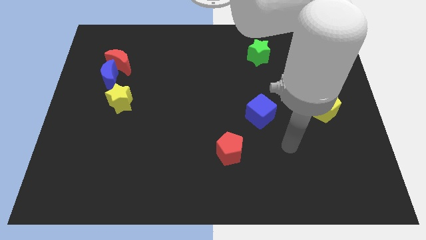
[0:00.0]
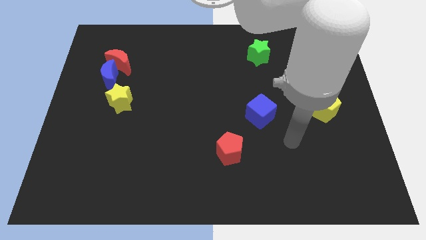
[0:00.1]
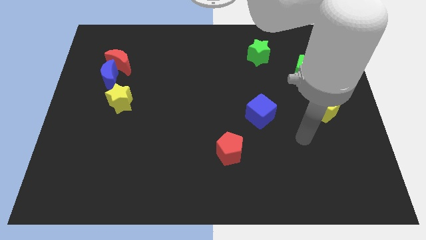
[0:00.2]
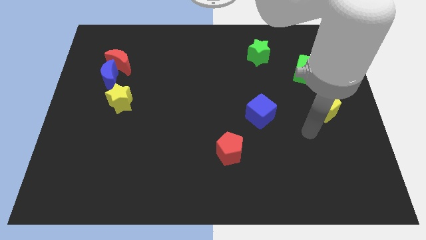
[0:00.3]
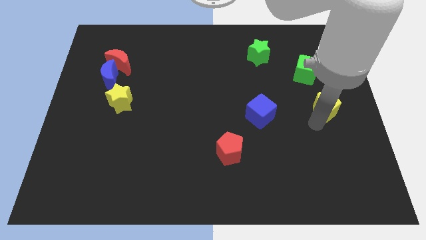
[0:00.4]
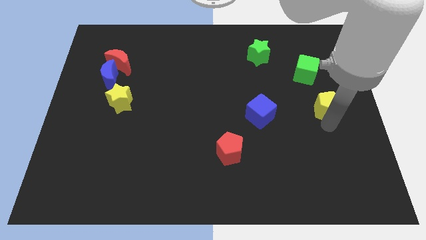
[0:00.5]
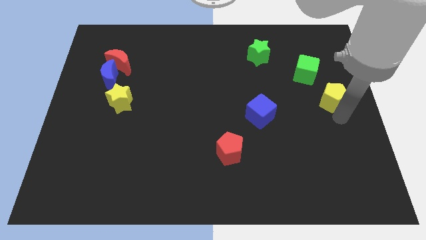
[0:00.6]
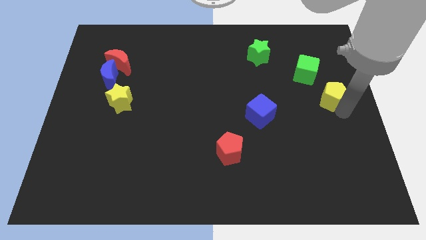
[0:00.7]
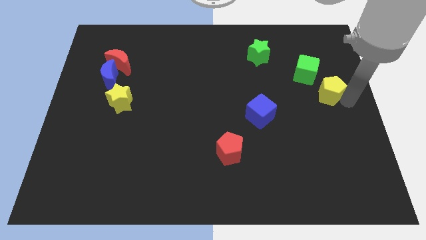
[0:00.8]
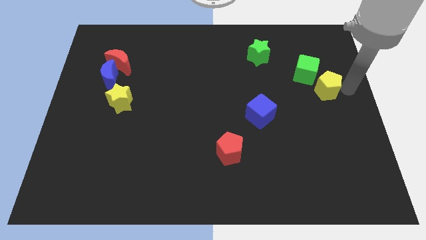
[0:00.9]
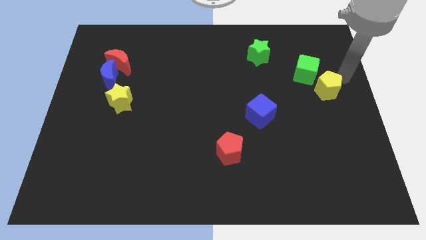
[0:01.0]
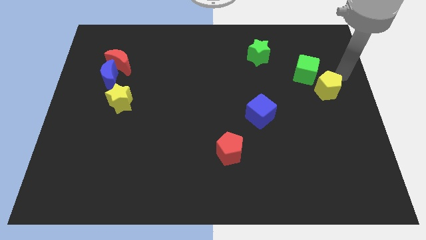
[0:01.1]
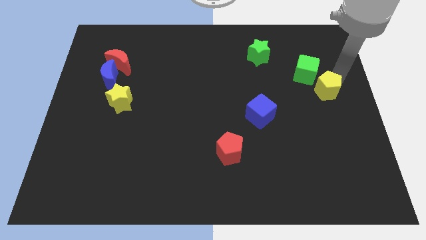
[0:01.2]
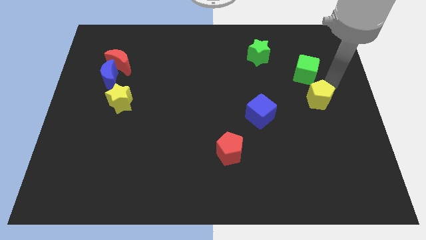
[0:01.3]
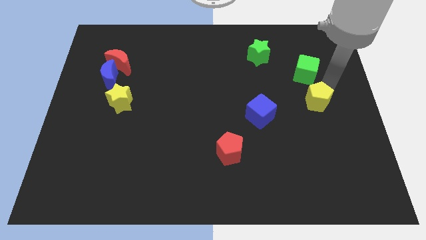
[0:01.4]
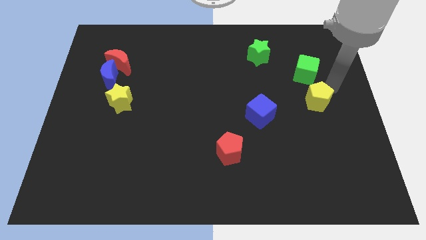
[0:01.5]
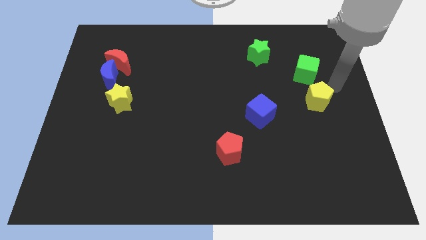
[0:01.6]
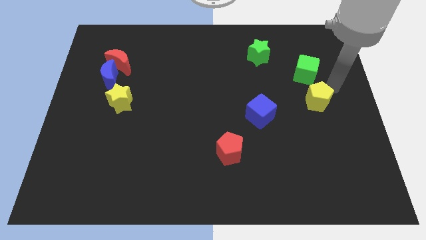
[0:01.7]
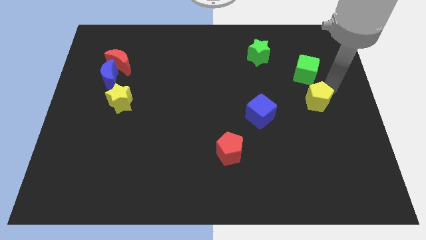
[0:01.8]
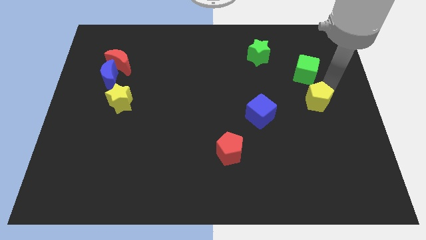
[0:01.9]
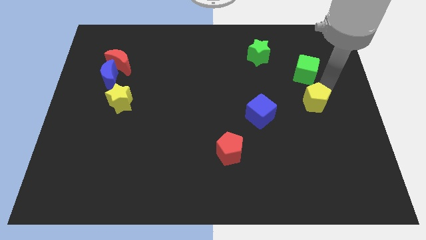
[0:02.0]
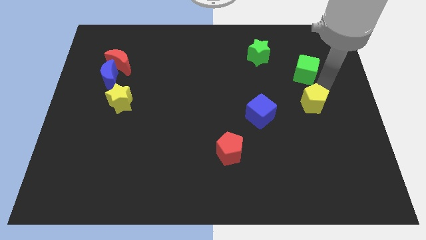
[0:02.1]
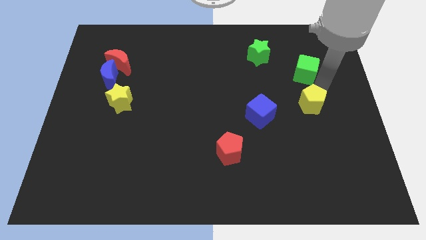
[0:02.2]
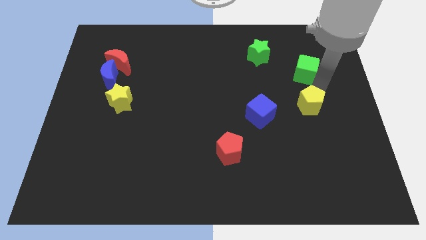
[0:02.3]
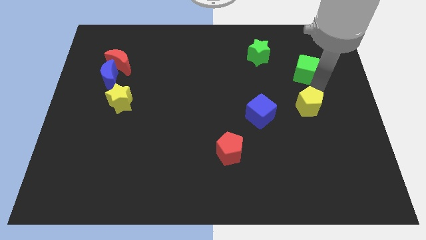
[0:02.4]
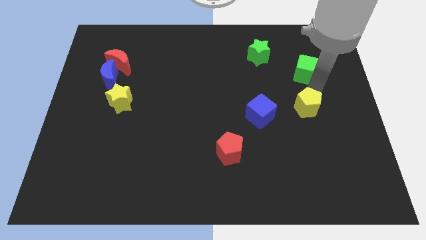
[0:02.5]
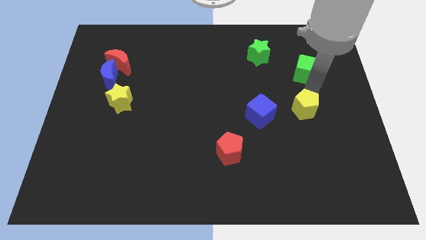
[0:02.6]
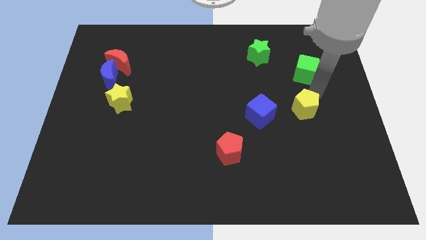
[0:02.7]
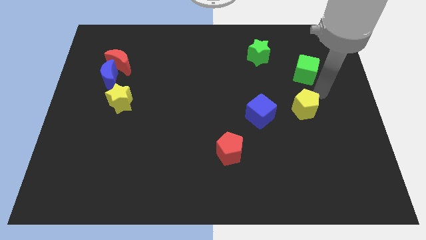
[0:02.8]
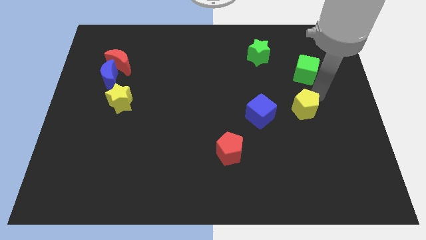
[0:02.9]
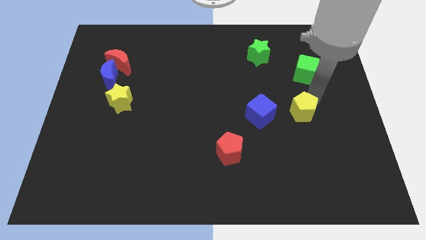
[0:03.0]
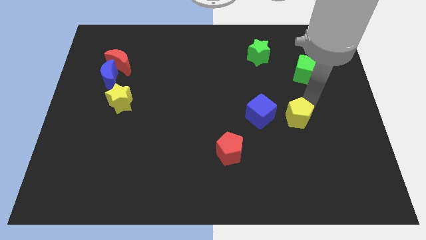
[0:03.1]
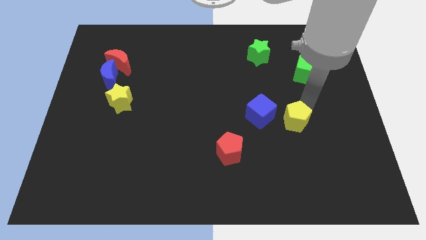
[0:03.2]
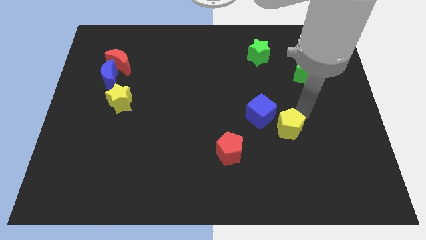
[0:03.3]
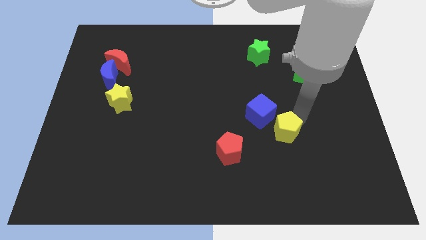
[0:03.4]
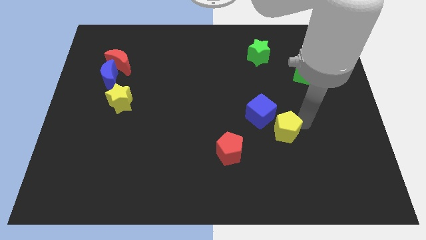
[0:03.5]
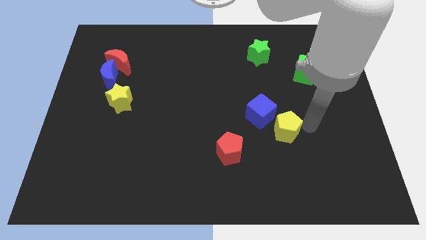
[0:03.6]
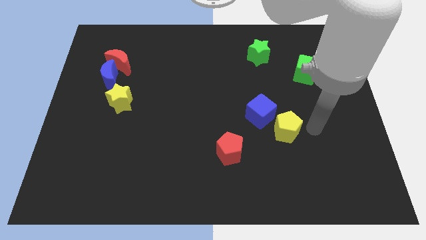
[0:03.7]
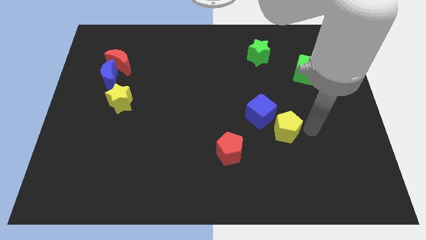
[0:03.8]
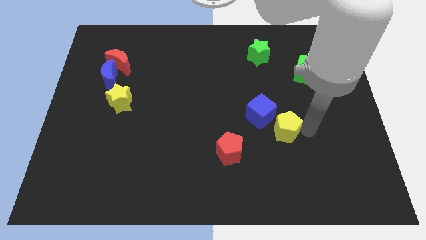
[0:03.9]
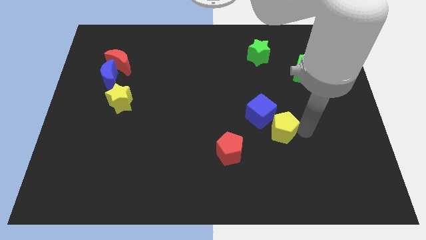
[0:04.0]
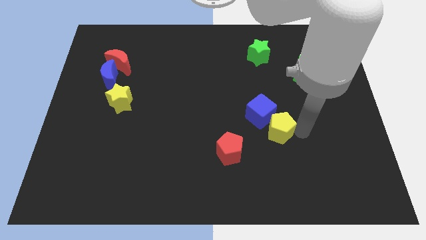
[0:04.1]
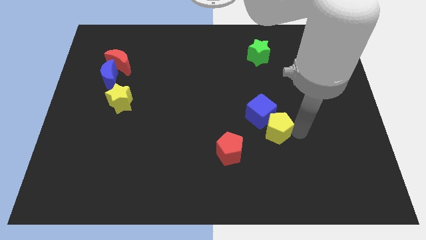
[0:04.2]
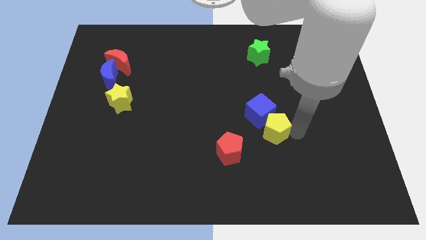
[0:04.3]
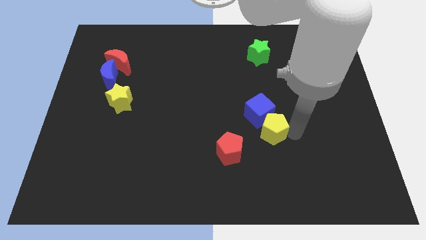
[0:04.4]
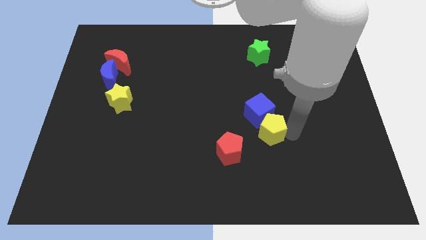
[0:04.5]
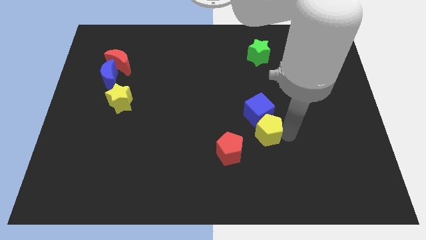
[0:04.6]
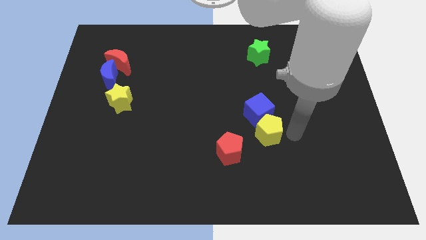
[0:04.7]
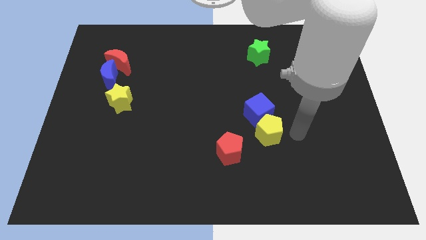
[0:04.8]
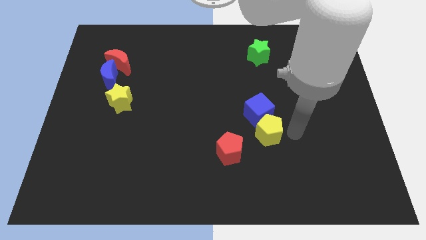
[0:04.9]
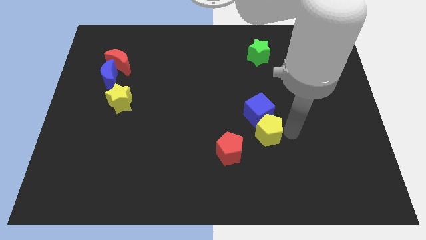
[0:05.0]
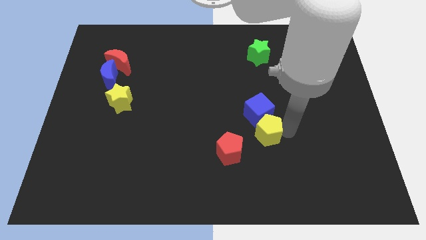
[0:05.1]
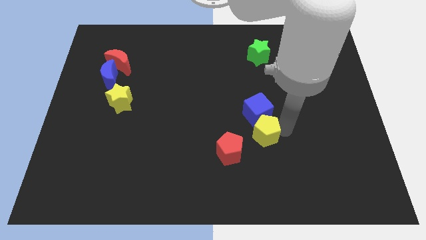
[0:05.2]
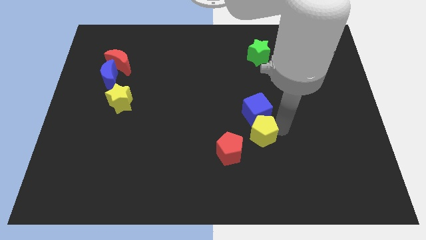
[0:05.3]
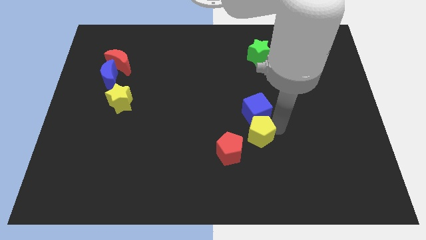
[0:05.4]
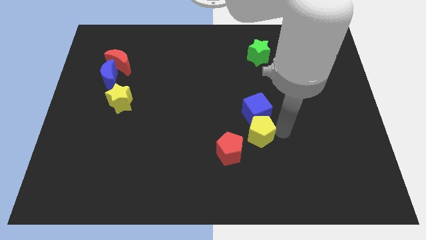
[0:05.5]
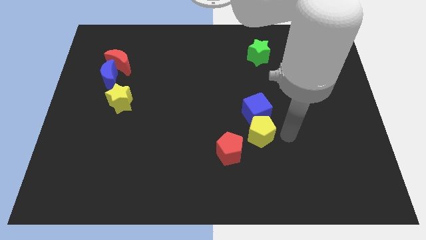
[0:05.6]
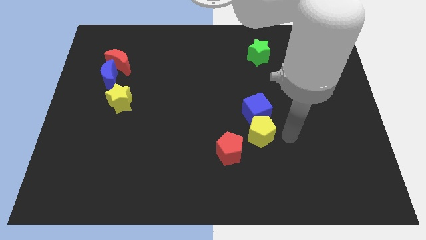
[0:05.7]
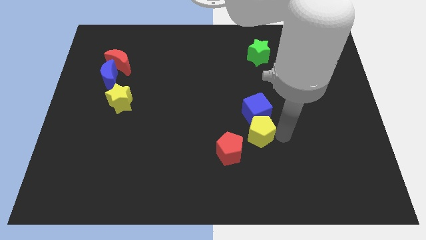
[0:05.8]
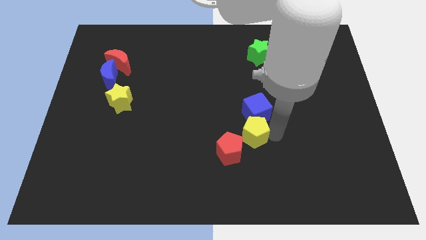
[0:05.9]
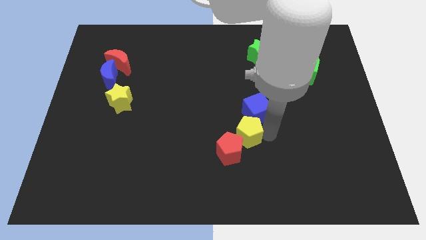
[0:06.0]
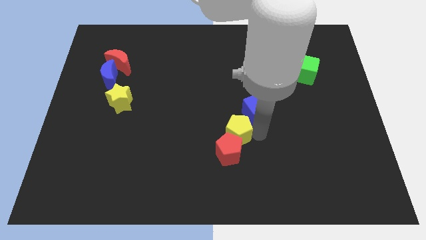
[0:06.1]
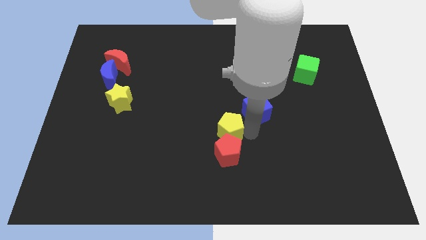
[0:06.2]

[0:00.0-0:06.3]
put the yellow pentagon to the top left side of the red pentagon

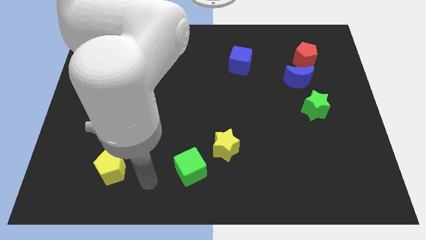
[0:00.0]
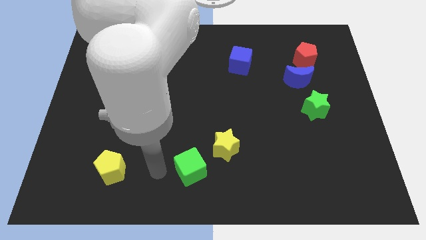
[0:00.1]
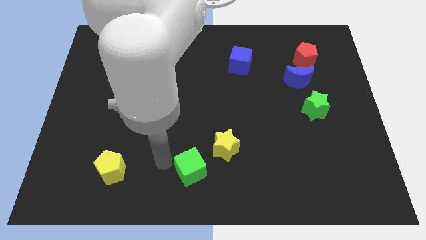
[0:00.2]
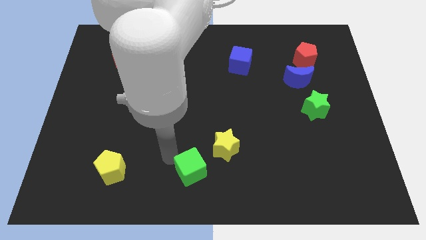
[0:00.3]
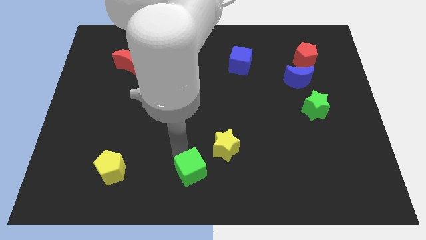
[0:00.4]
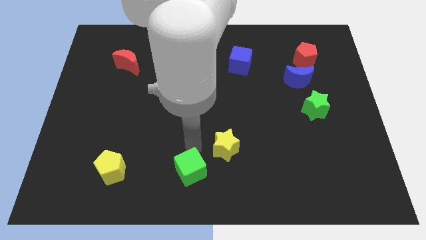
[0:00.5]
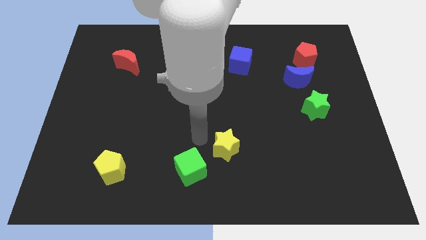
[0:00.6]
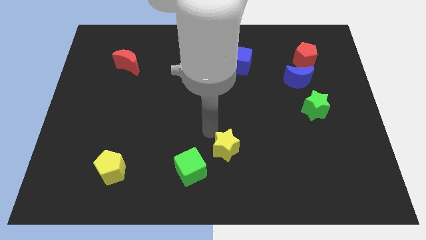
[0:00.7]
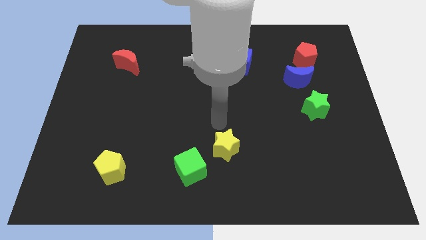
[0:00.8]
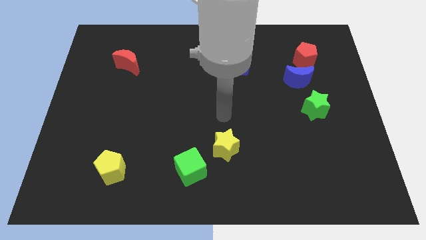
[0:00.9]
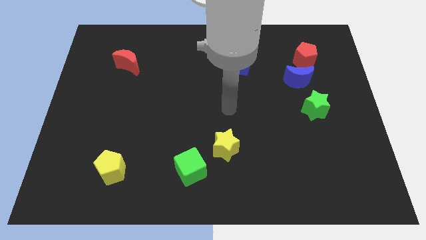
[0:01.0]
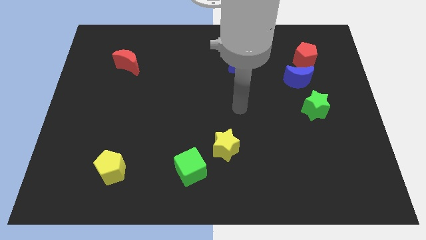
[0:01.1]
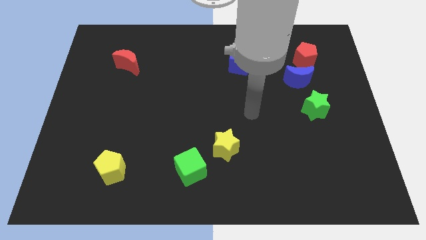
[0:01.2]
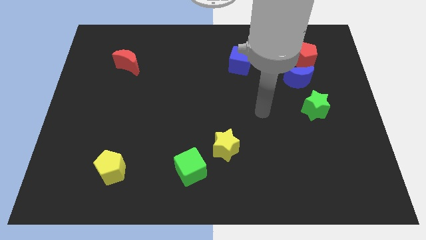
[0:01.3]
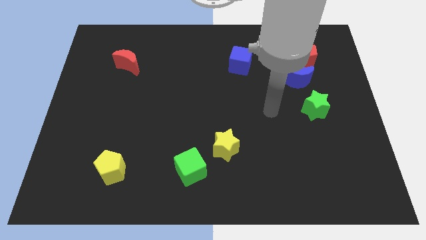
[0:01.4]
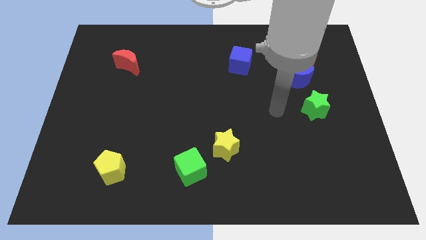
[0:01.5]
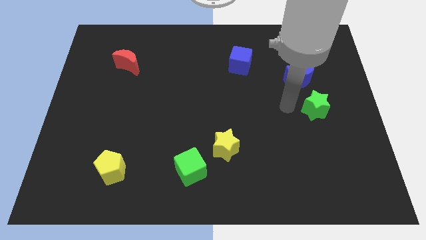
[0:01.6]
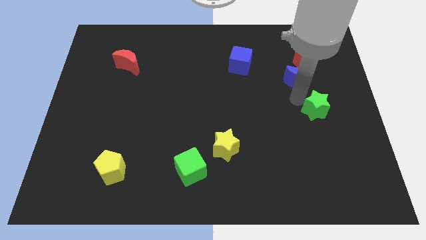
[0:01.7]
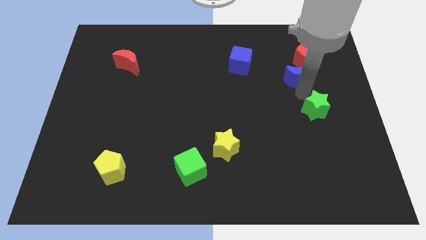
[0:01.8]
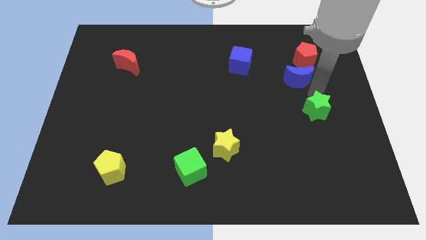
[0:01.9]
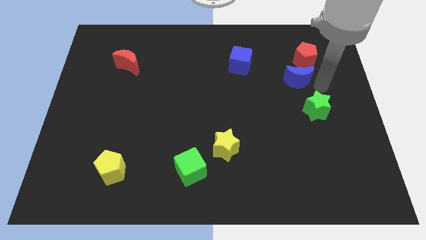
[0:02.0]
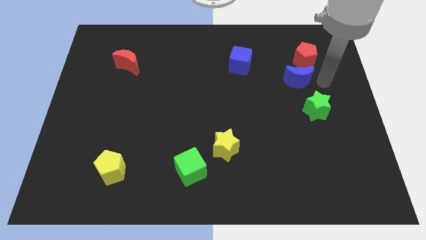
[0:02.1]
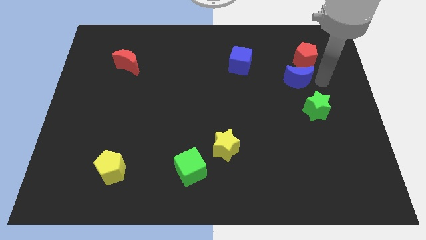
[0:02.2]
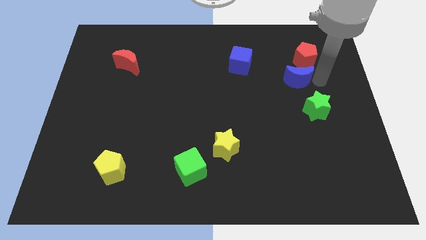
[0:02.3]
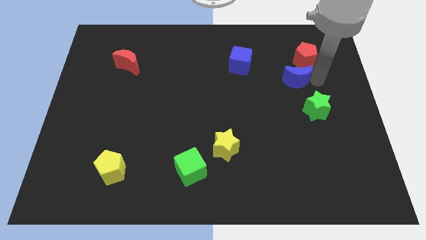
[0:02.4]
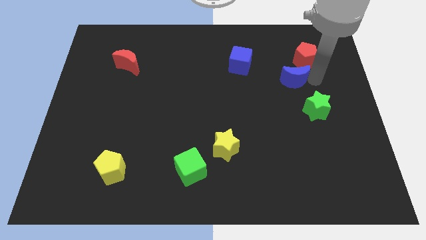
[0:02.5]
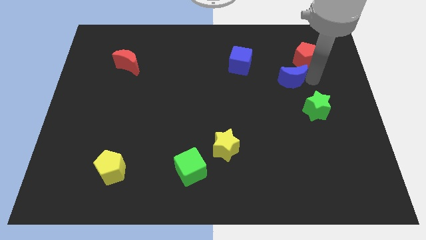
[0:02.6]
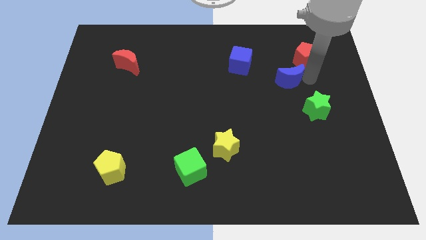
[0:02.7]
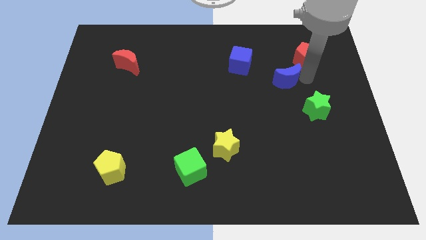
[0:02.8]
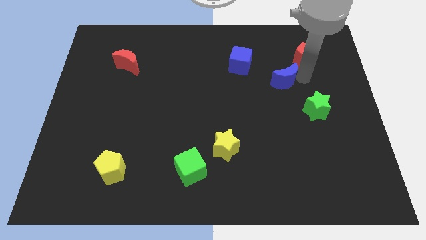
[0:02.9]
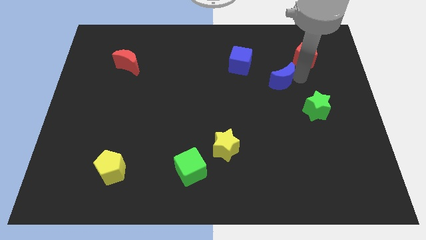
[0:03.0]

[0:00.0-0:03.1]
move the blue moon to the bottom right of the blue cube
